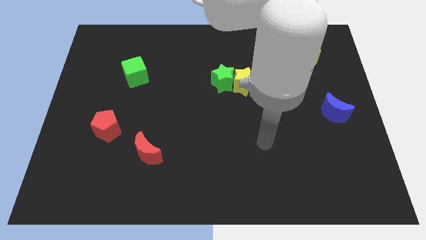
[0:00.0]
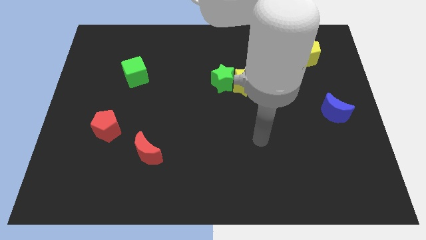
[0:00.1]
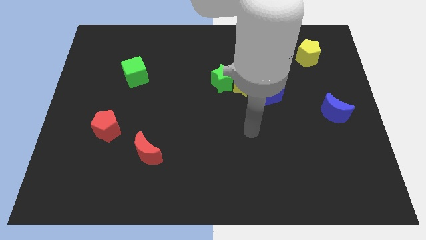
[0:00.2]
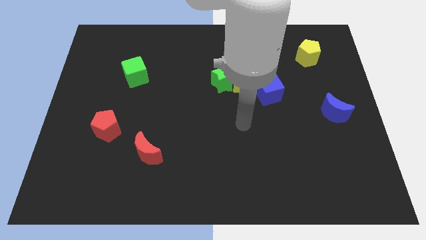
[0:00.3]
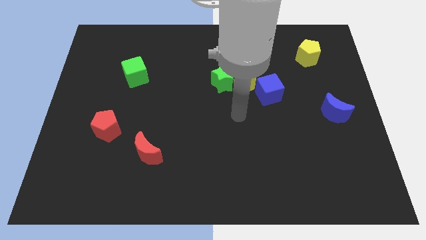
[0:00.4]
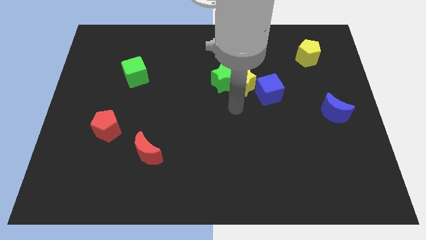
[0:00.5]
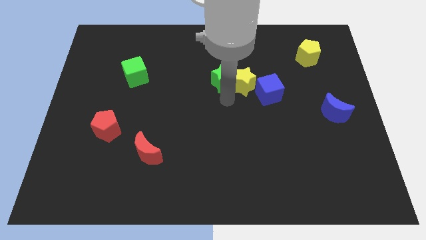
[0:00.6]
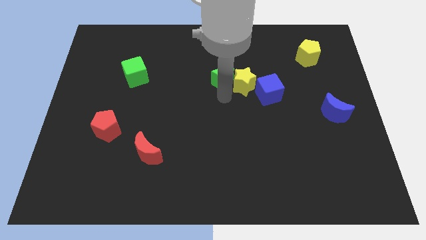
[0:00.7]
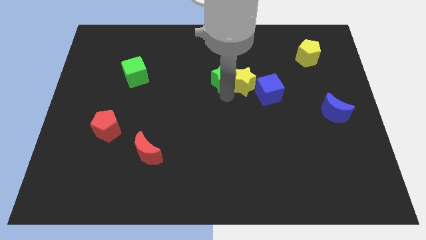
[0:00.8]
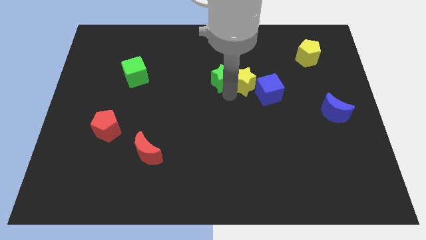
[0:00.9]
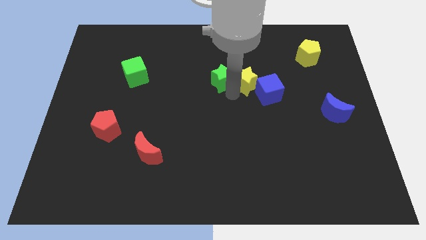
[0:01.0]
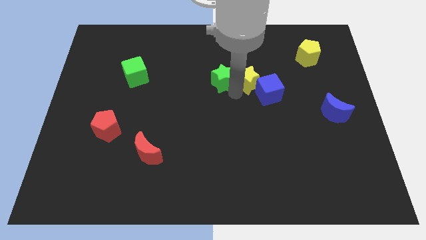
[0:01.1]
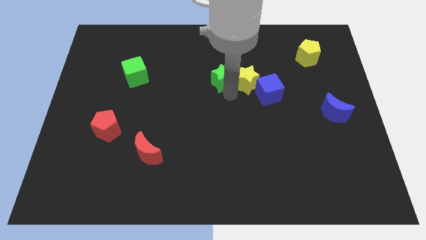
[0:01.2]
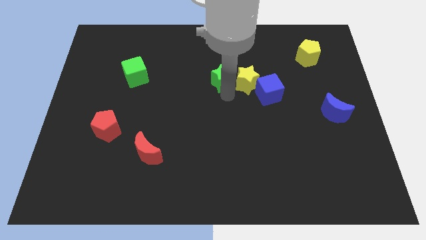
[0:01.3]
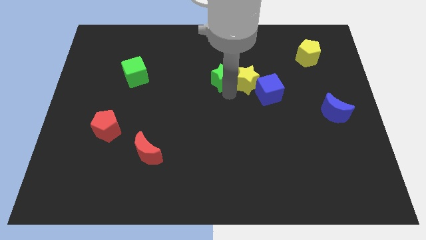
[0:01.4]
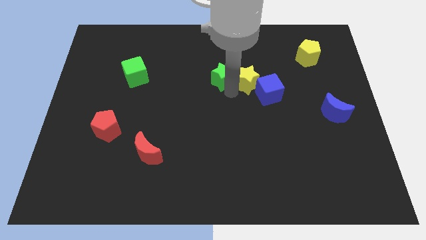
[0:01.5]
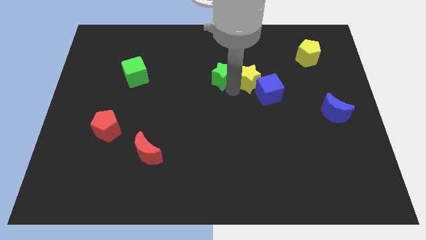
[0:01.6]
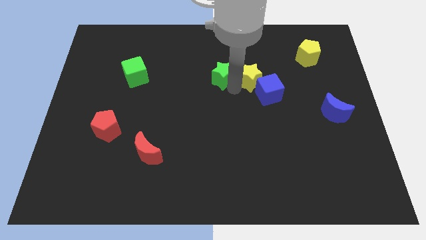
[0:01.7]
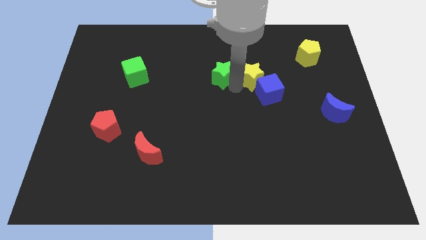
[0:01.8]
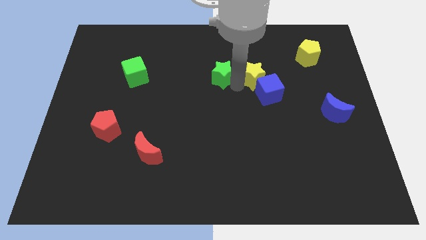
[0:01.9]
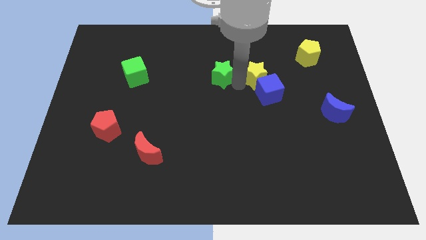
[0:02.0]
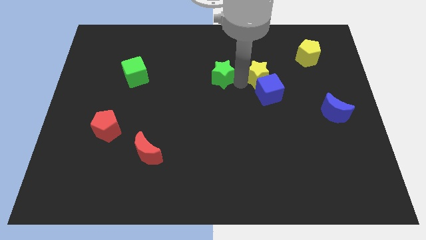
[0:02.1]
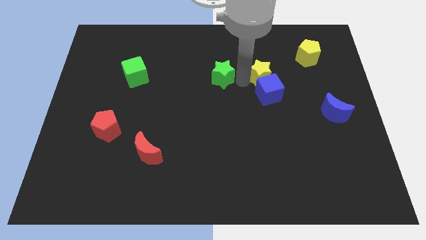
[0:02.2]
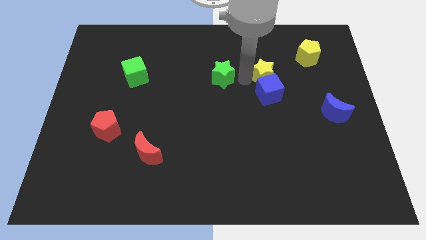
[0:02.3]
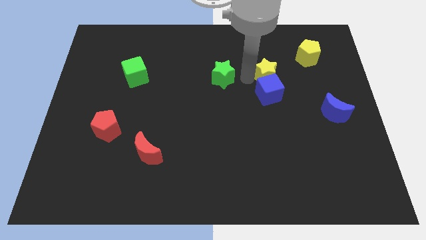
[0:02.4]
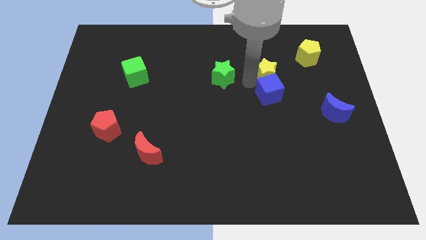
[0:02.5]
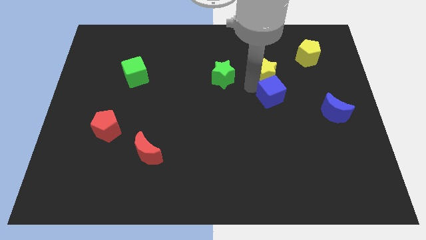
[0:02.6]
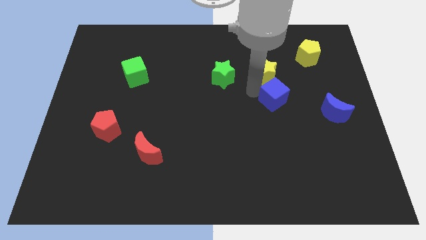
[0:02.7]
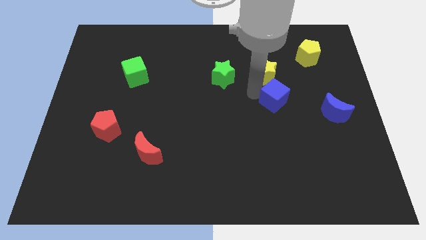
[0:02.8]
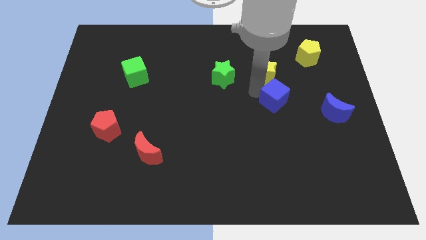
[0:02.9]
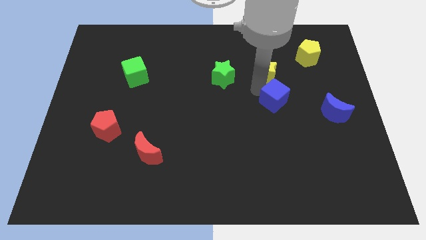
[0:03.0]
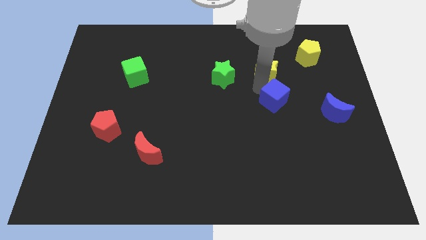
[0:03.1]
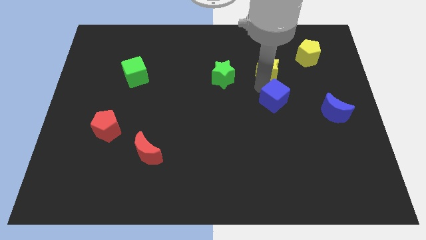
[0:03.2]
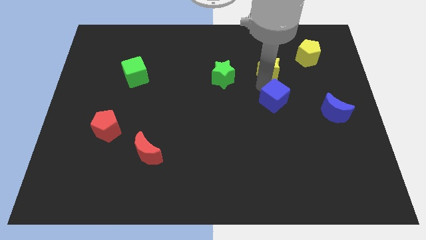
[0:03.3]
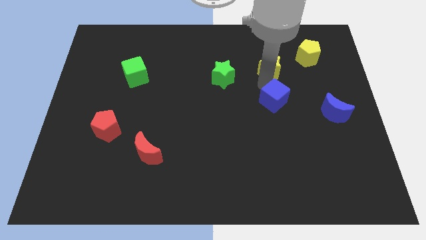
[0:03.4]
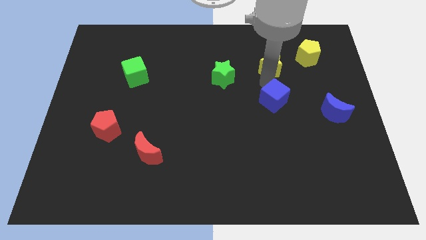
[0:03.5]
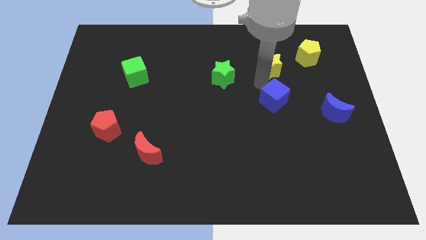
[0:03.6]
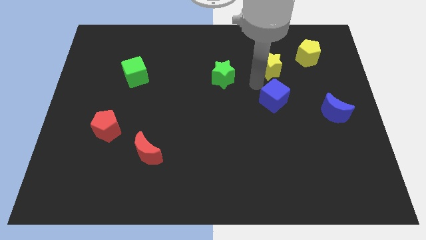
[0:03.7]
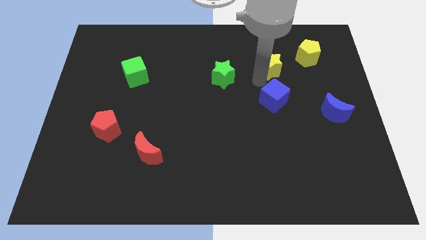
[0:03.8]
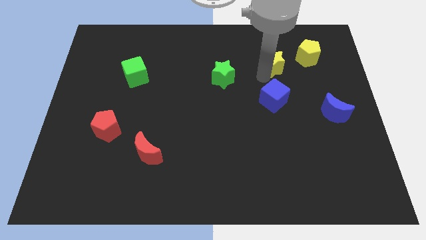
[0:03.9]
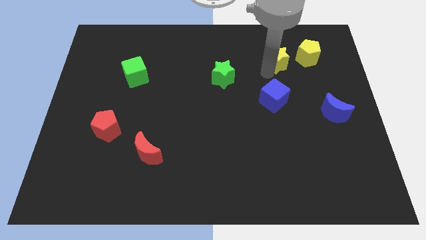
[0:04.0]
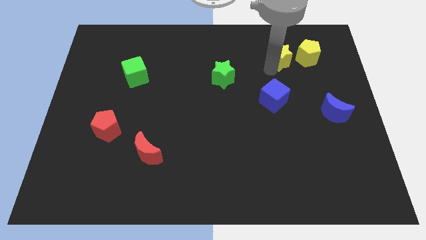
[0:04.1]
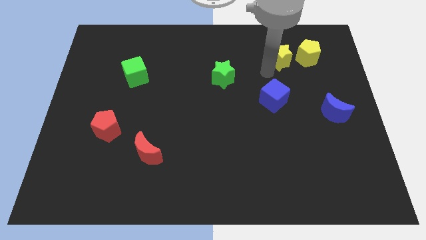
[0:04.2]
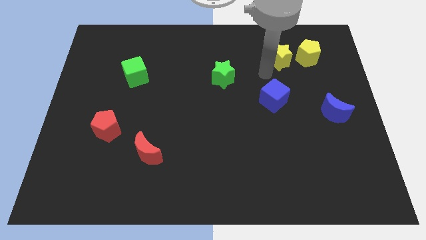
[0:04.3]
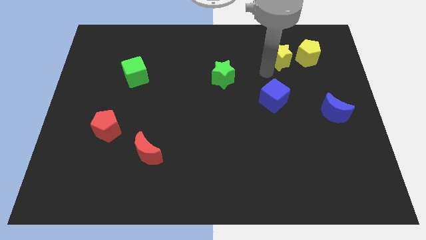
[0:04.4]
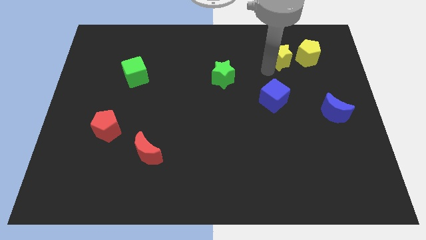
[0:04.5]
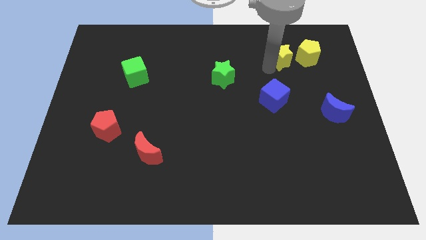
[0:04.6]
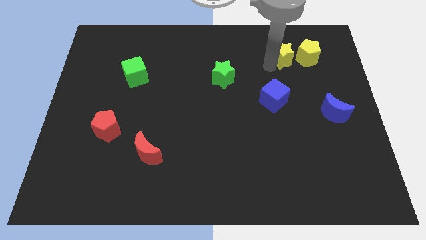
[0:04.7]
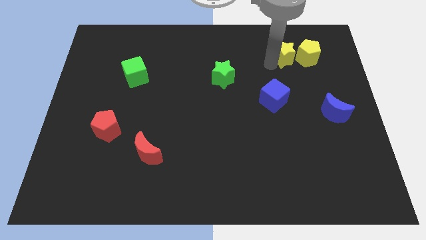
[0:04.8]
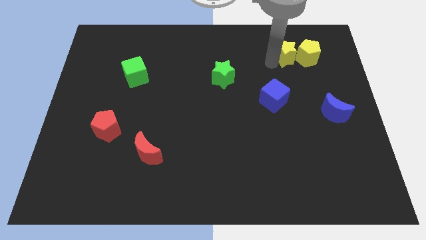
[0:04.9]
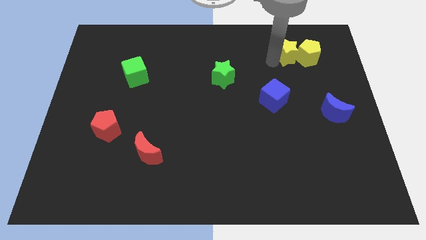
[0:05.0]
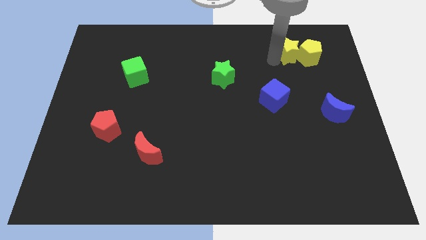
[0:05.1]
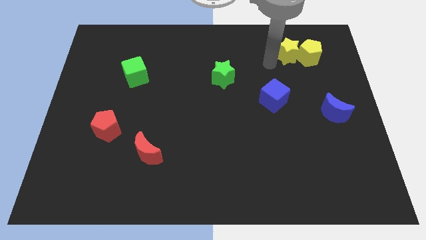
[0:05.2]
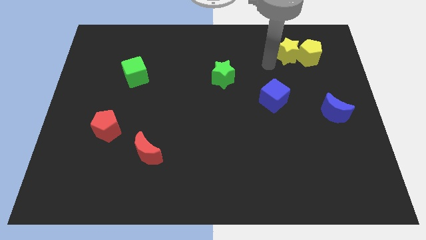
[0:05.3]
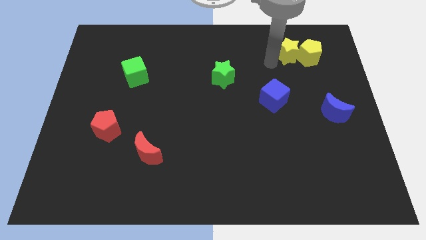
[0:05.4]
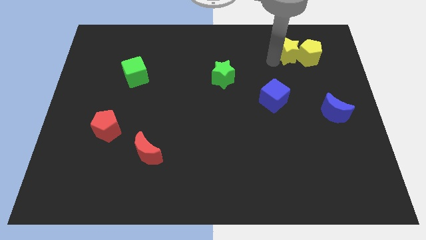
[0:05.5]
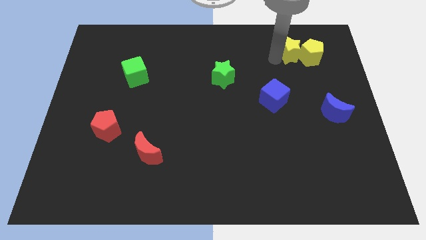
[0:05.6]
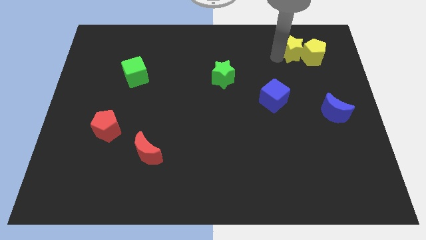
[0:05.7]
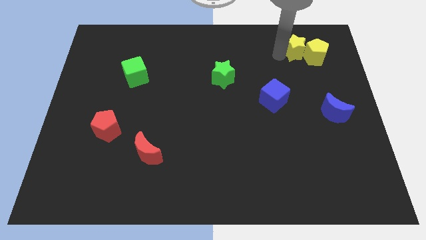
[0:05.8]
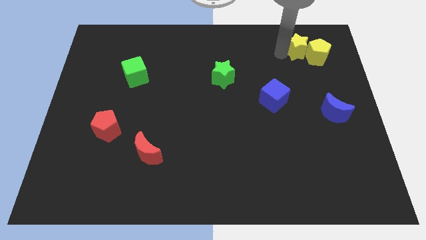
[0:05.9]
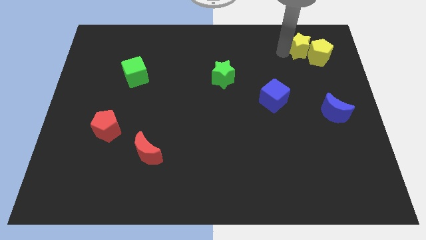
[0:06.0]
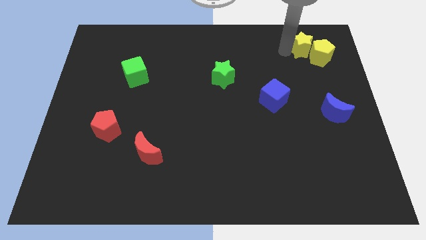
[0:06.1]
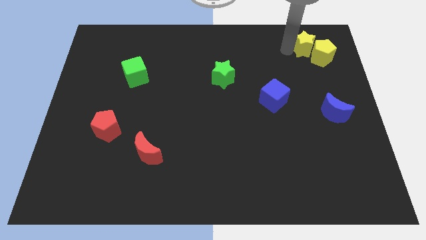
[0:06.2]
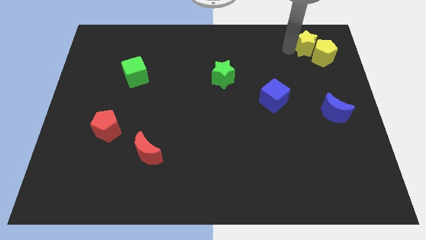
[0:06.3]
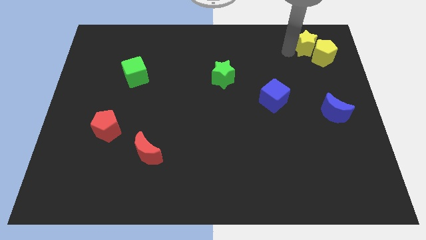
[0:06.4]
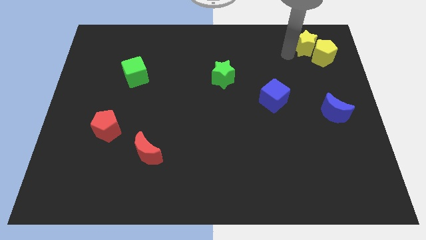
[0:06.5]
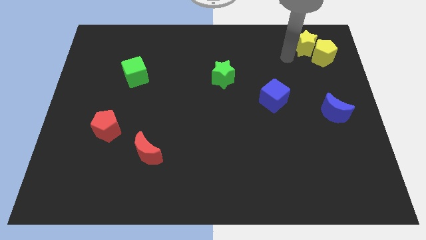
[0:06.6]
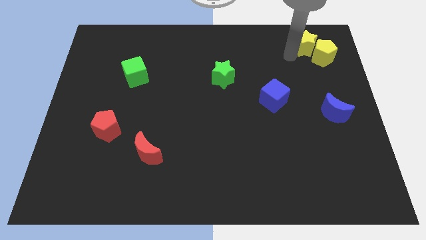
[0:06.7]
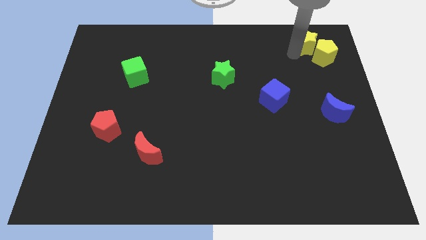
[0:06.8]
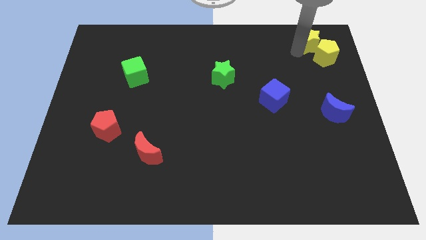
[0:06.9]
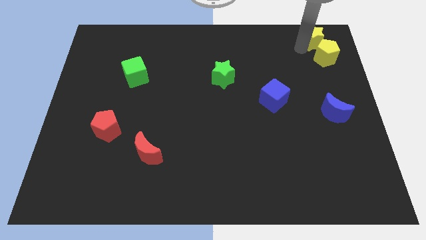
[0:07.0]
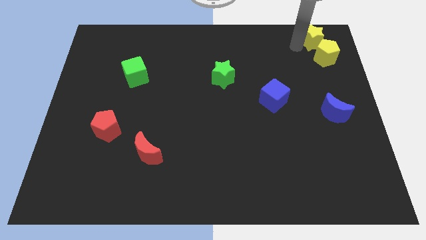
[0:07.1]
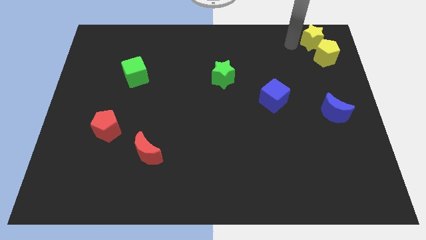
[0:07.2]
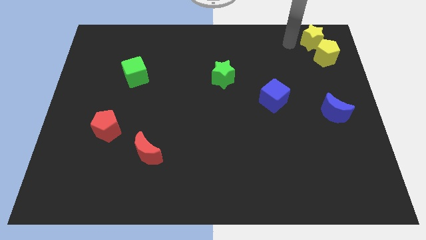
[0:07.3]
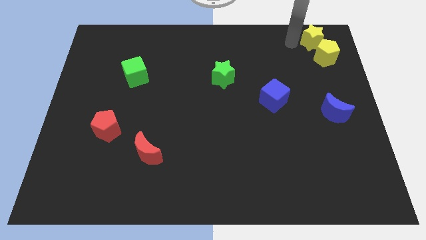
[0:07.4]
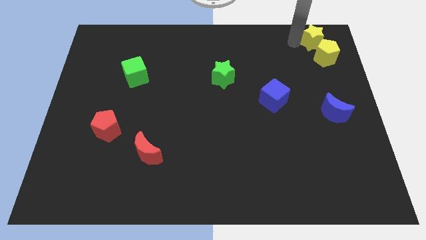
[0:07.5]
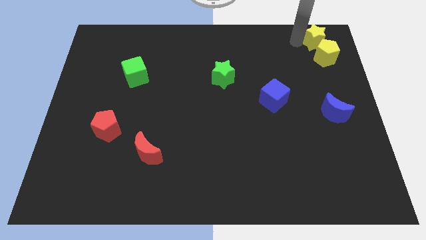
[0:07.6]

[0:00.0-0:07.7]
move the yellow star to the top right of the board
